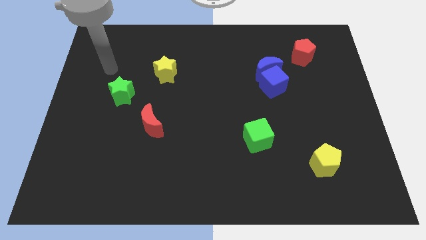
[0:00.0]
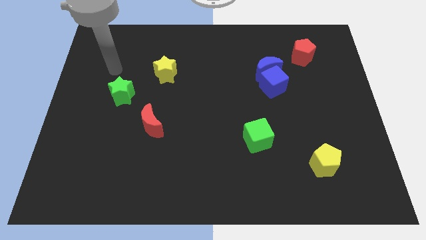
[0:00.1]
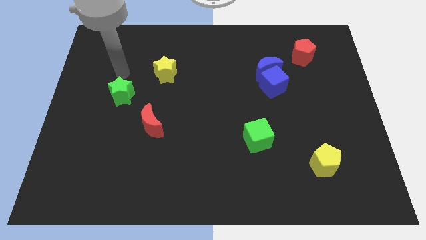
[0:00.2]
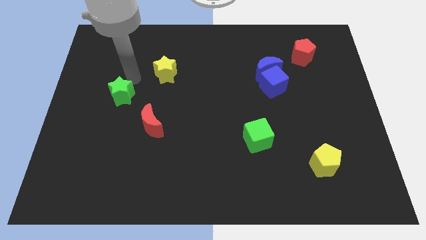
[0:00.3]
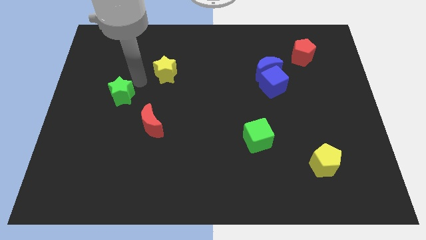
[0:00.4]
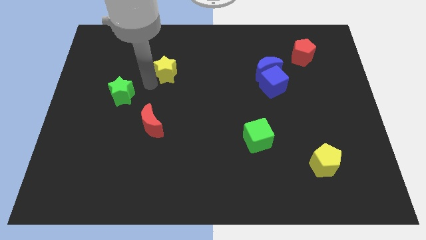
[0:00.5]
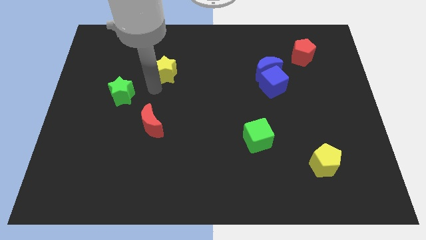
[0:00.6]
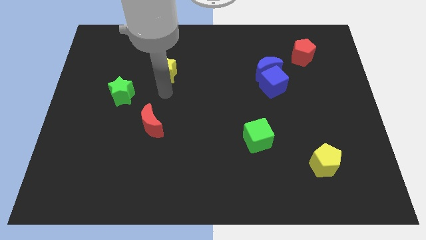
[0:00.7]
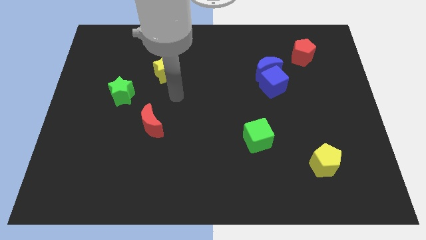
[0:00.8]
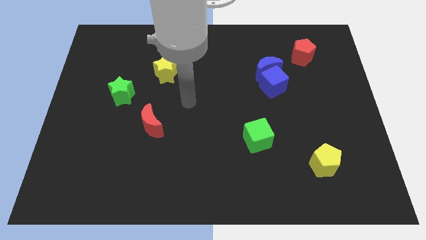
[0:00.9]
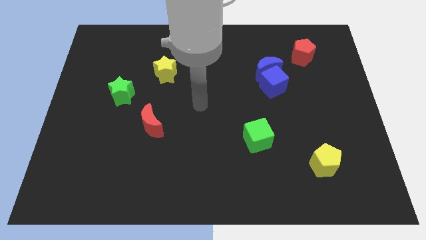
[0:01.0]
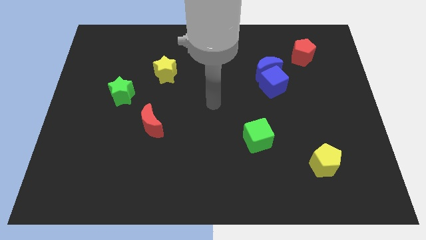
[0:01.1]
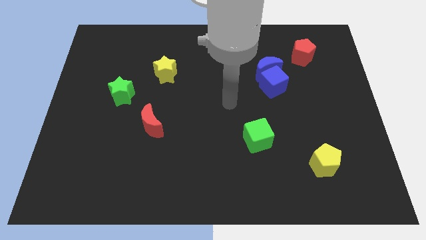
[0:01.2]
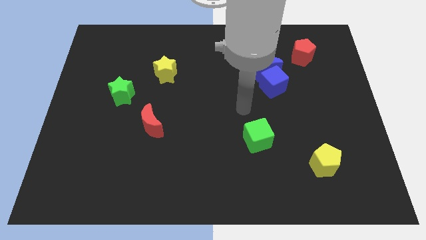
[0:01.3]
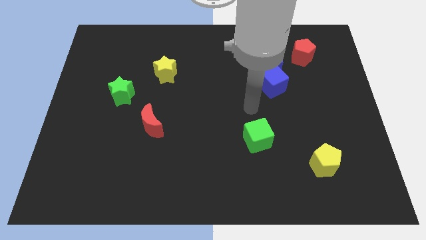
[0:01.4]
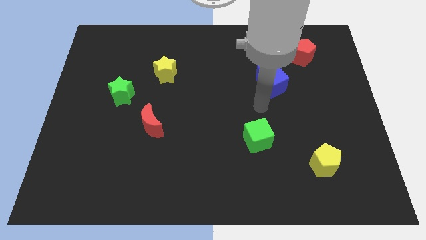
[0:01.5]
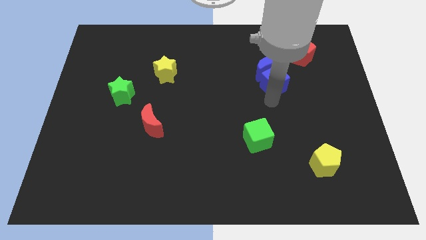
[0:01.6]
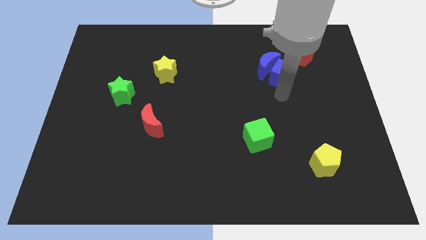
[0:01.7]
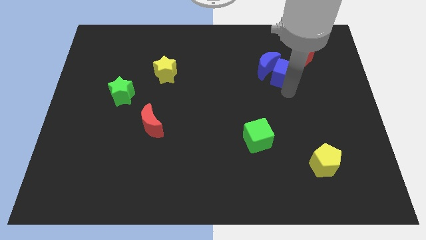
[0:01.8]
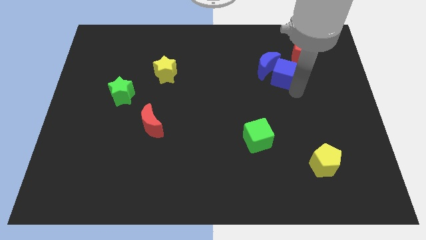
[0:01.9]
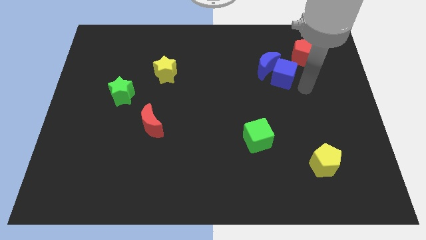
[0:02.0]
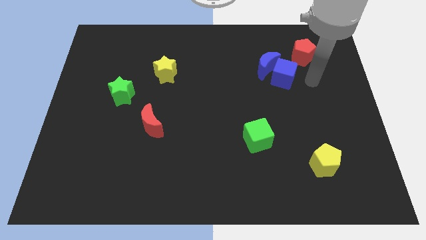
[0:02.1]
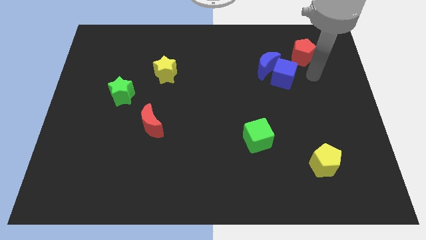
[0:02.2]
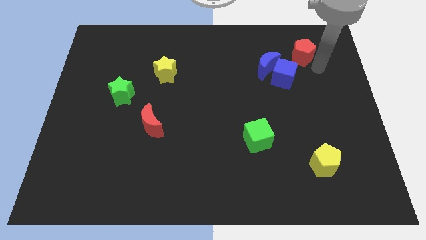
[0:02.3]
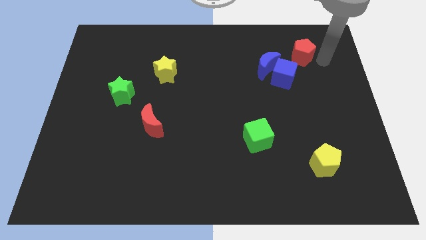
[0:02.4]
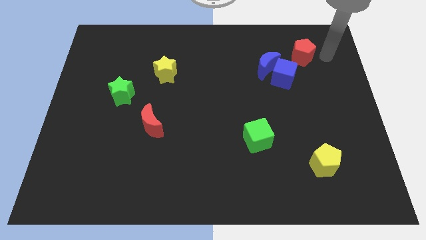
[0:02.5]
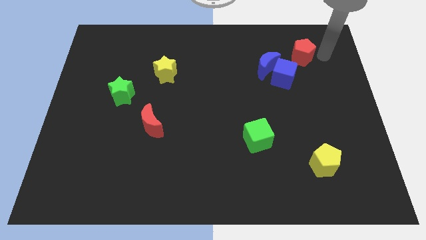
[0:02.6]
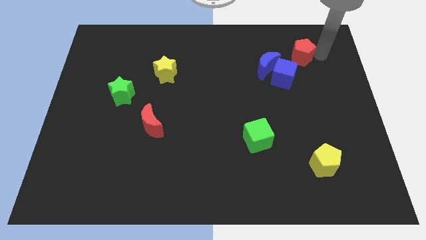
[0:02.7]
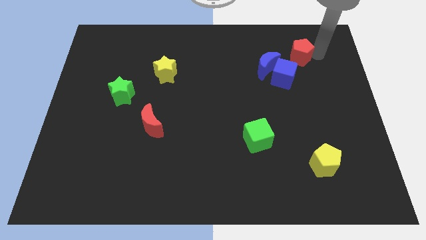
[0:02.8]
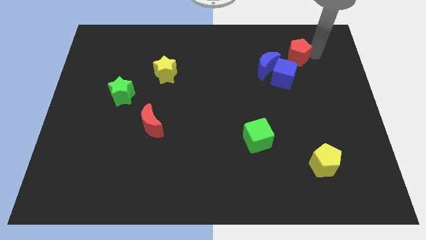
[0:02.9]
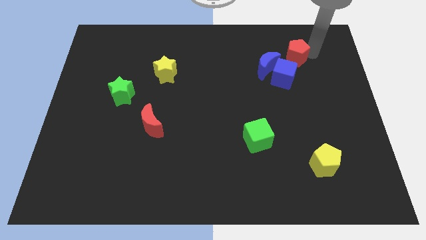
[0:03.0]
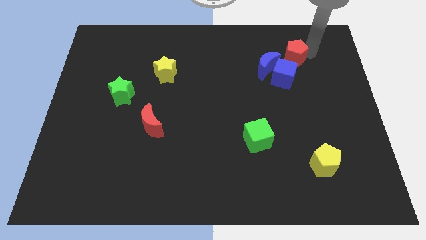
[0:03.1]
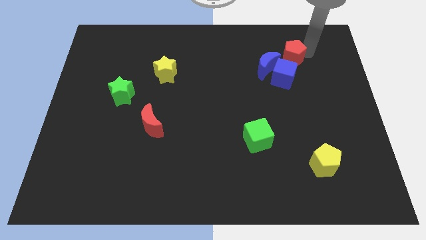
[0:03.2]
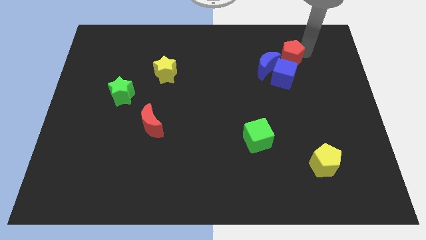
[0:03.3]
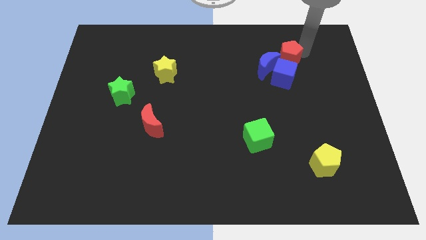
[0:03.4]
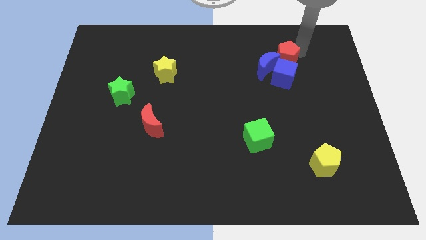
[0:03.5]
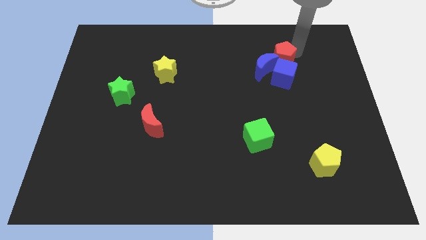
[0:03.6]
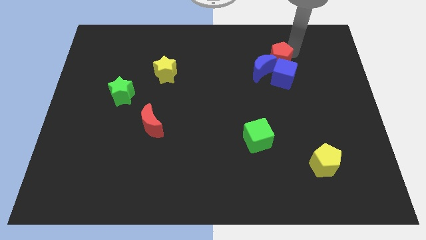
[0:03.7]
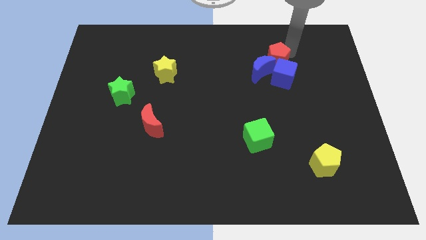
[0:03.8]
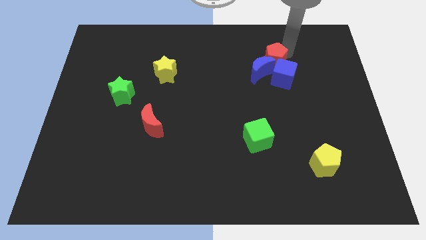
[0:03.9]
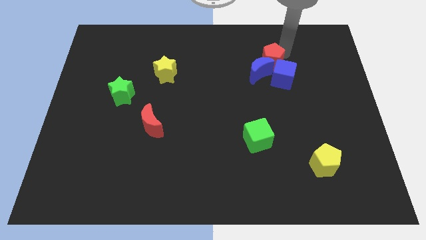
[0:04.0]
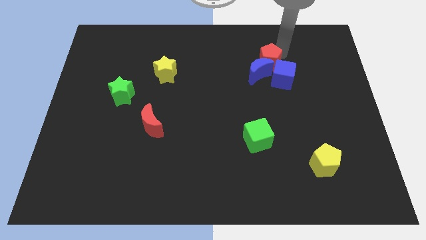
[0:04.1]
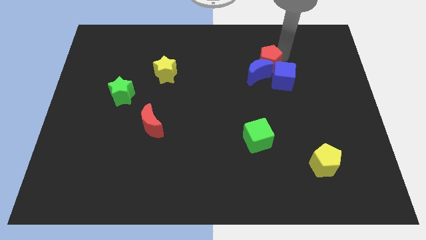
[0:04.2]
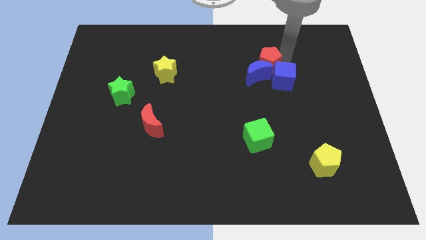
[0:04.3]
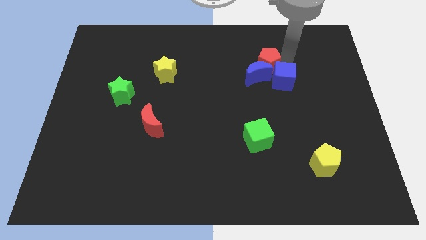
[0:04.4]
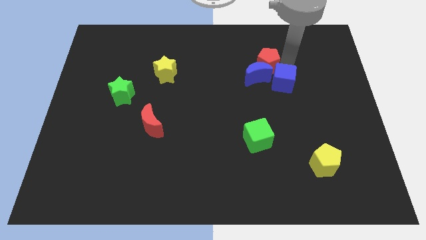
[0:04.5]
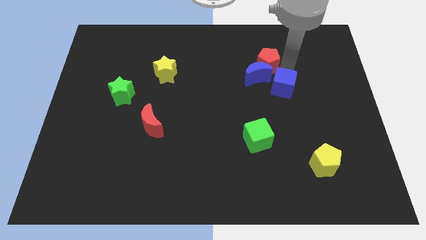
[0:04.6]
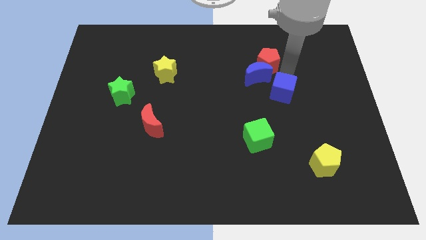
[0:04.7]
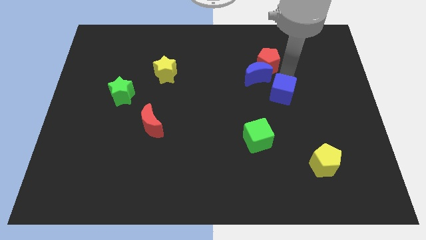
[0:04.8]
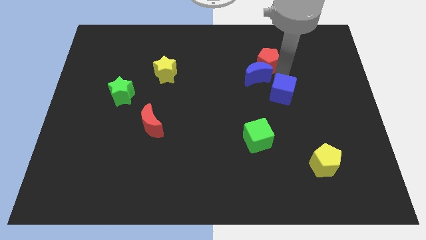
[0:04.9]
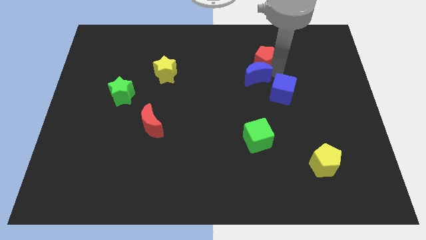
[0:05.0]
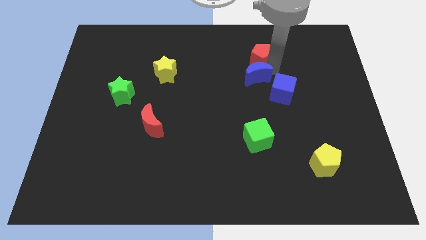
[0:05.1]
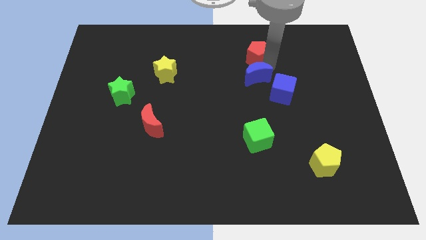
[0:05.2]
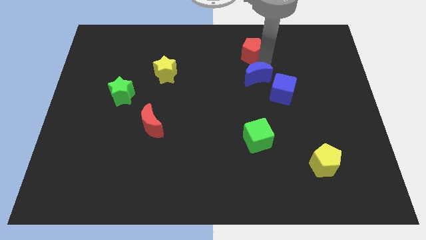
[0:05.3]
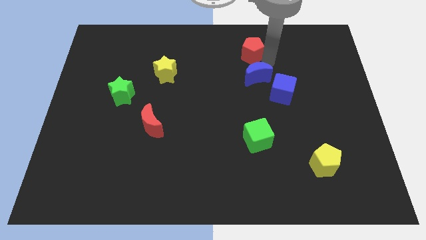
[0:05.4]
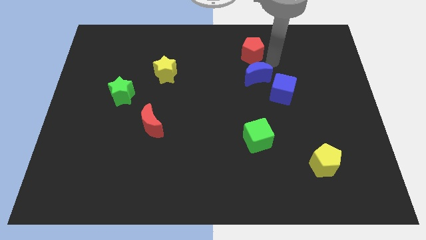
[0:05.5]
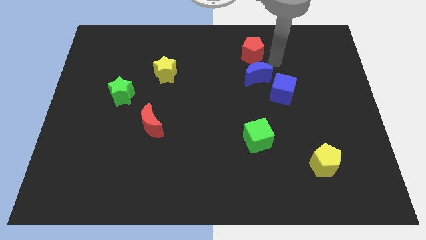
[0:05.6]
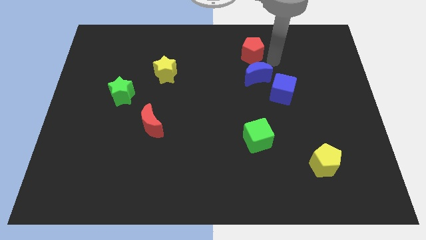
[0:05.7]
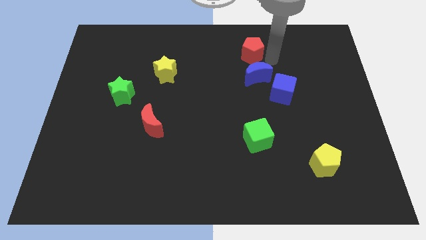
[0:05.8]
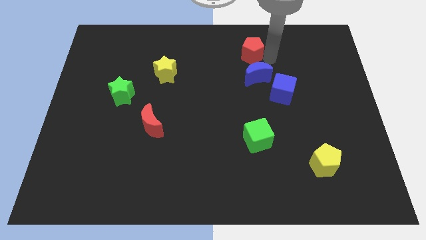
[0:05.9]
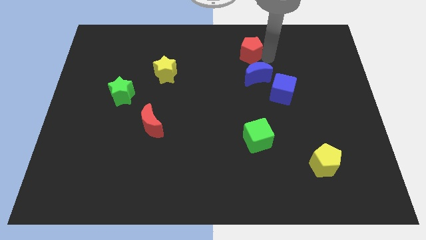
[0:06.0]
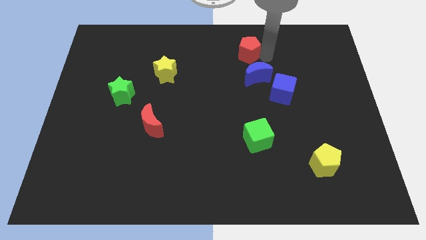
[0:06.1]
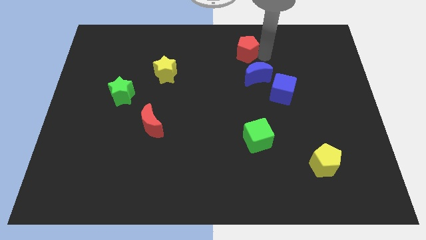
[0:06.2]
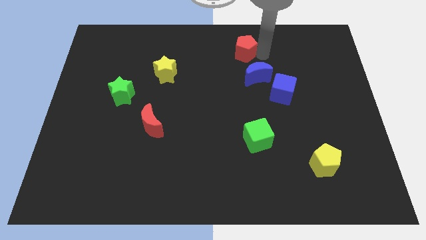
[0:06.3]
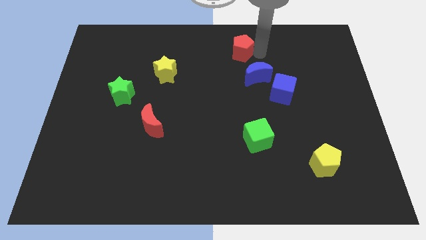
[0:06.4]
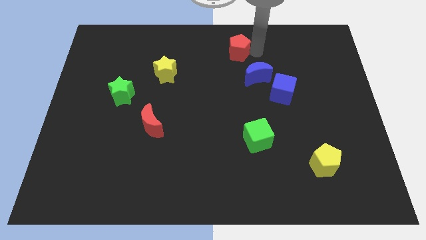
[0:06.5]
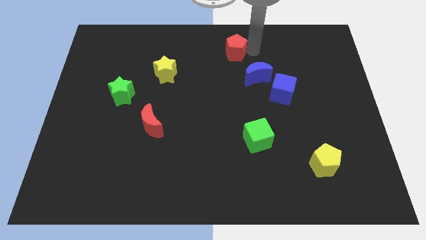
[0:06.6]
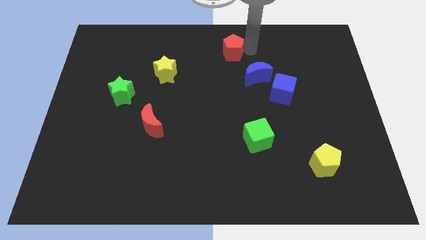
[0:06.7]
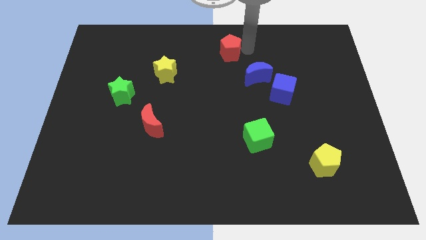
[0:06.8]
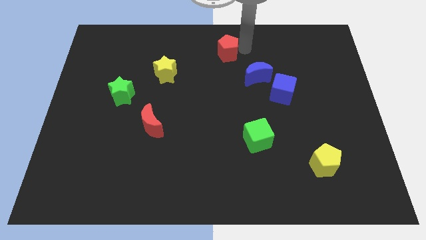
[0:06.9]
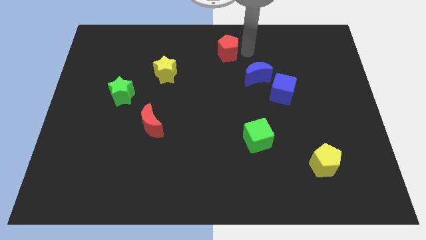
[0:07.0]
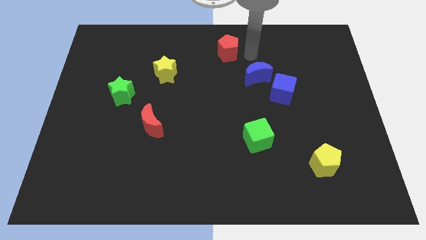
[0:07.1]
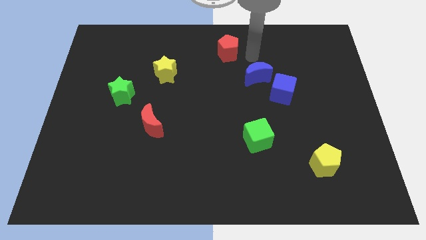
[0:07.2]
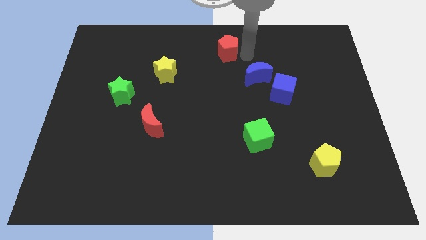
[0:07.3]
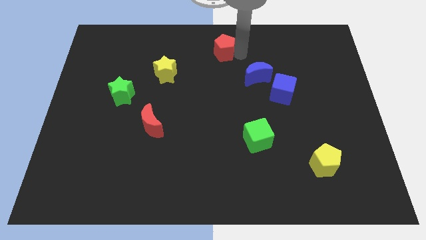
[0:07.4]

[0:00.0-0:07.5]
move the red pentagon left

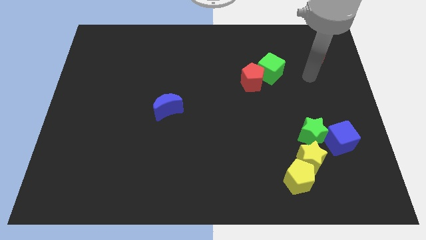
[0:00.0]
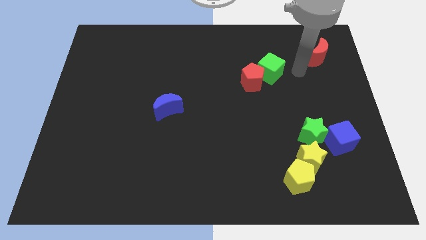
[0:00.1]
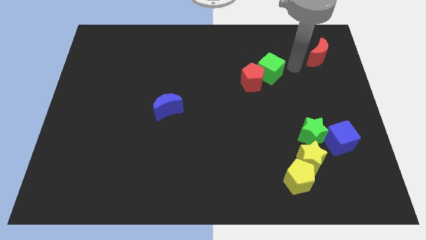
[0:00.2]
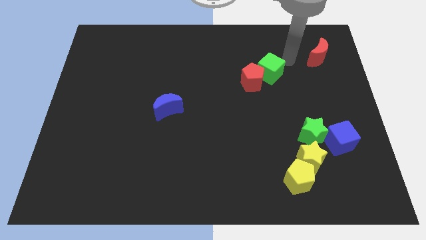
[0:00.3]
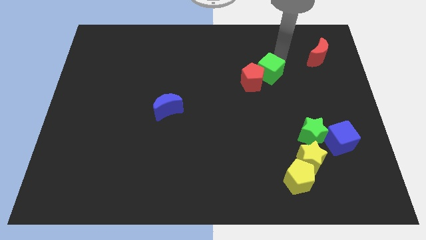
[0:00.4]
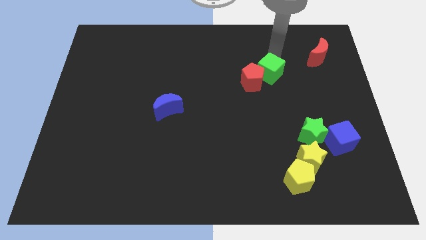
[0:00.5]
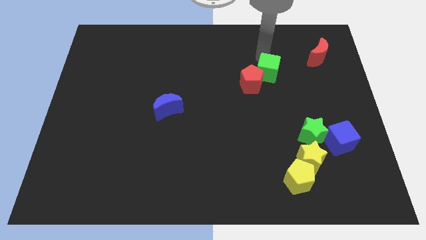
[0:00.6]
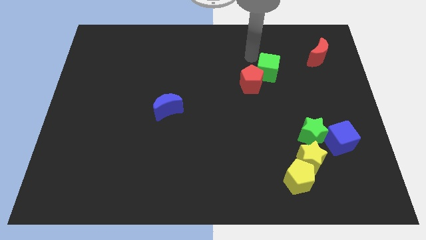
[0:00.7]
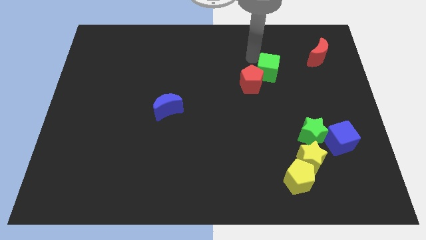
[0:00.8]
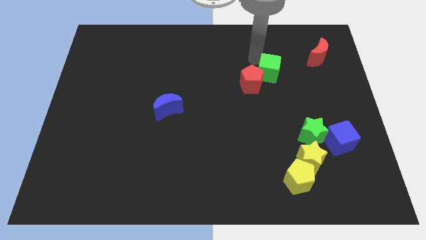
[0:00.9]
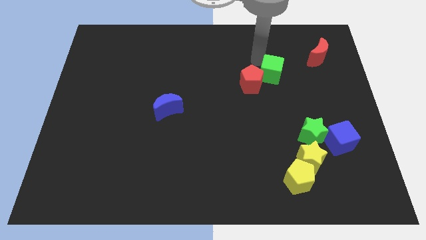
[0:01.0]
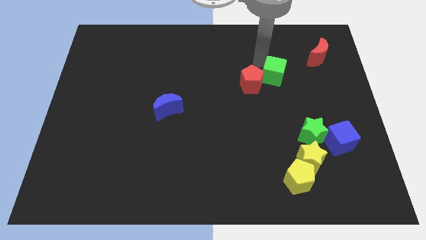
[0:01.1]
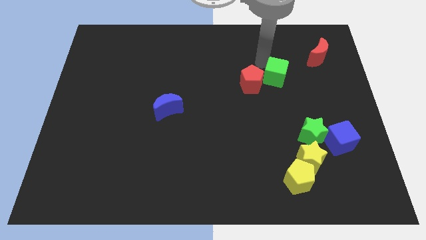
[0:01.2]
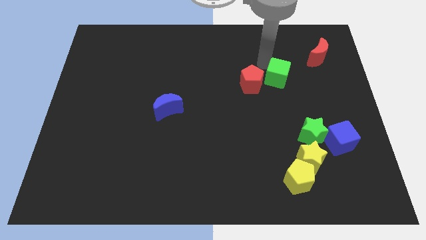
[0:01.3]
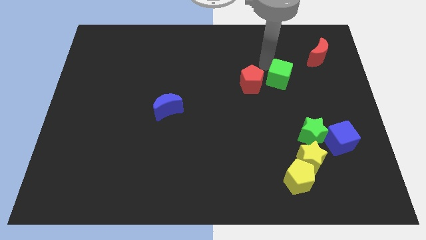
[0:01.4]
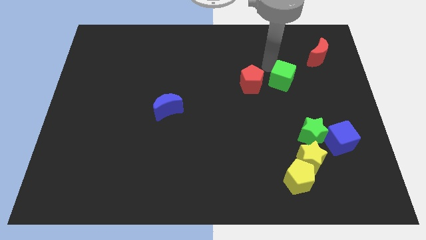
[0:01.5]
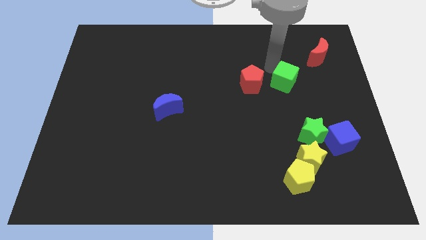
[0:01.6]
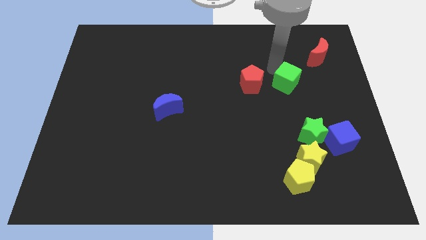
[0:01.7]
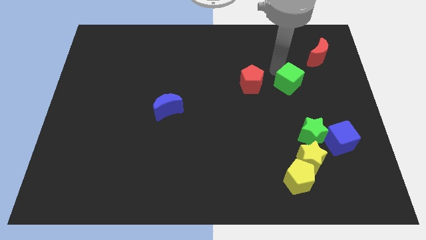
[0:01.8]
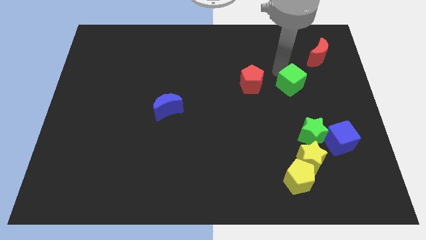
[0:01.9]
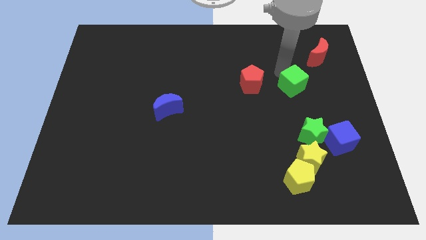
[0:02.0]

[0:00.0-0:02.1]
move the green cube a little downwards and to the right
